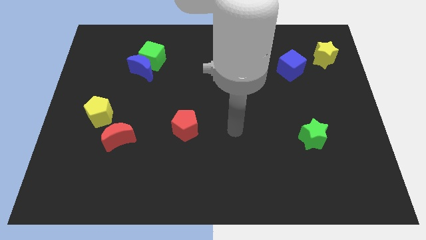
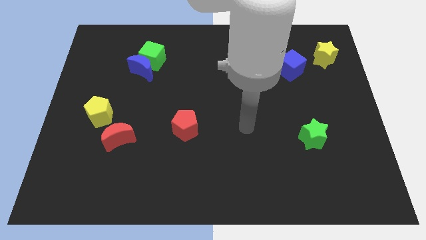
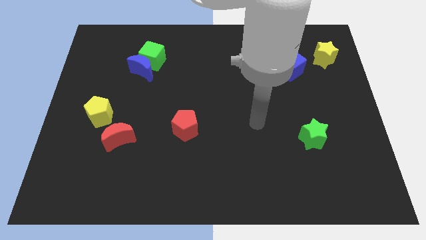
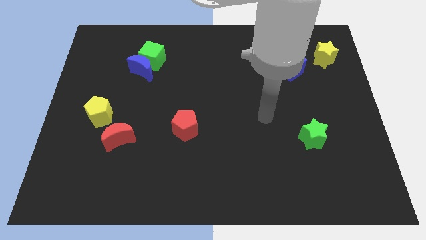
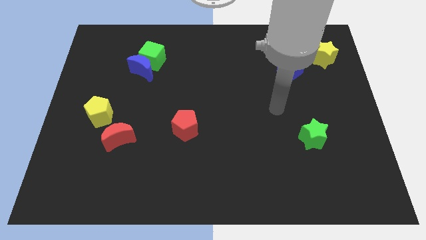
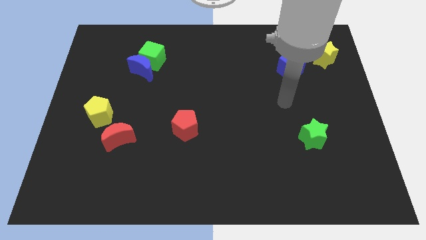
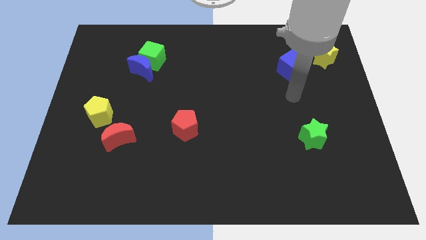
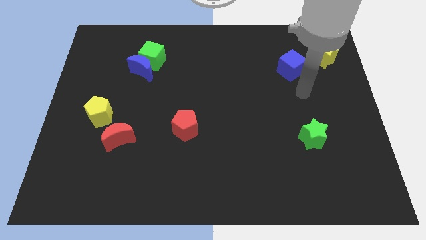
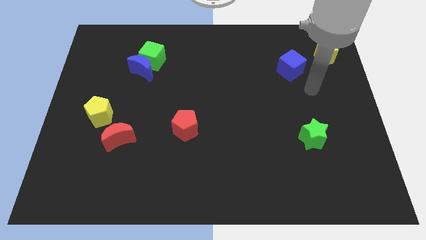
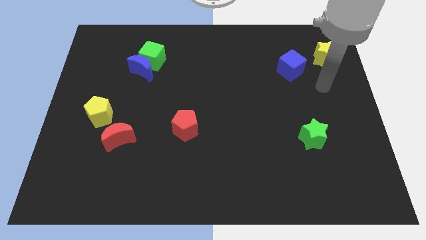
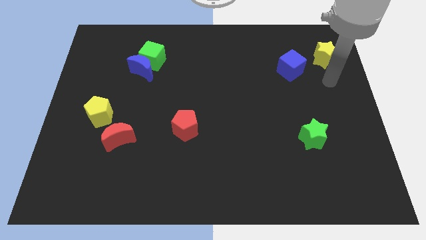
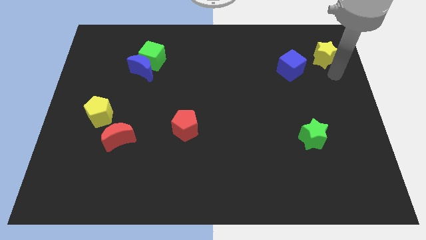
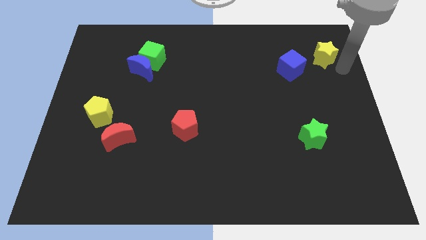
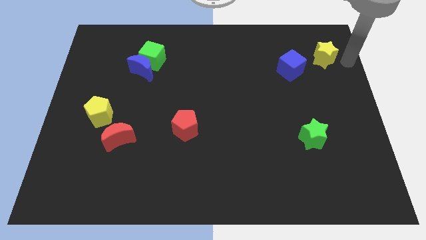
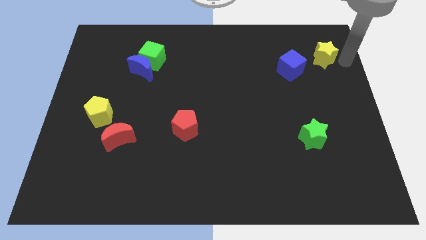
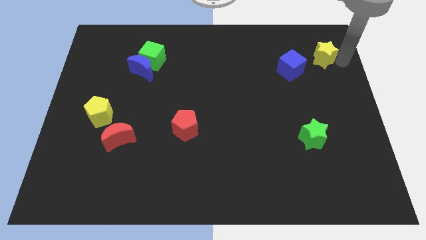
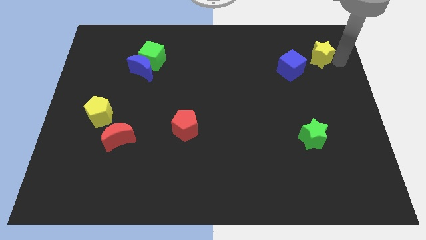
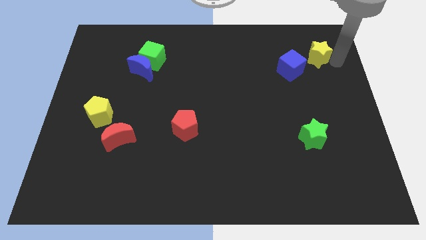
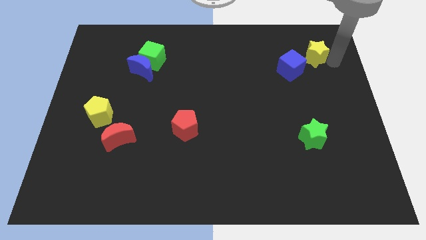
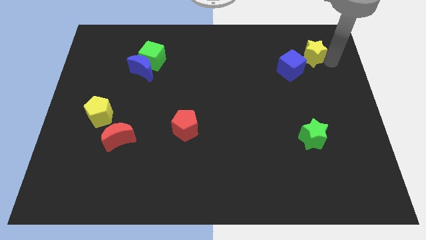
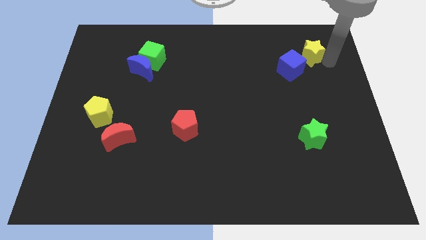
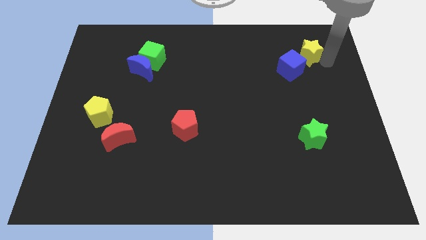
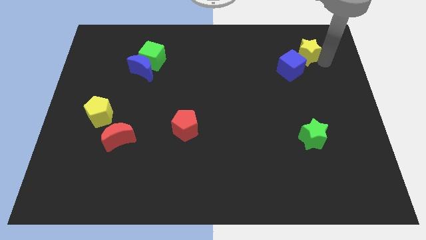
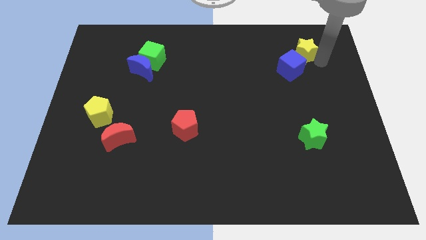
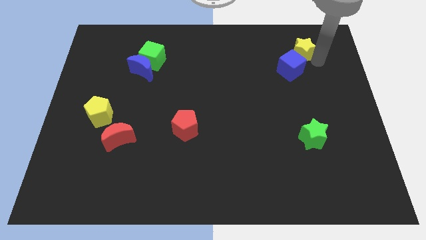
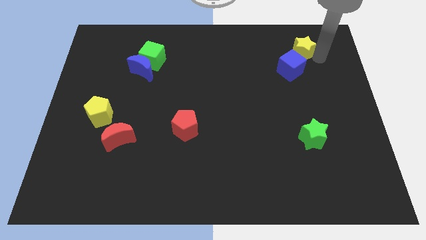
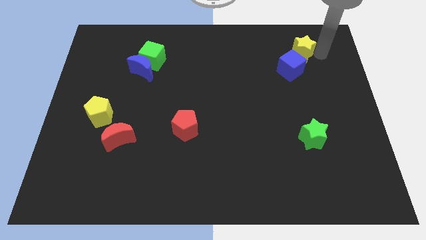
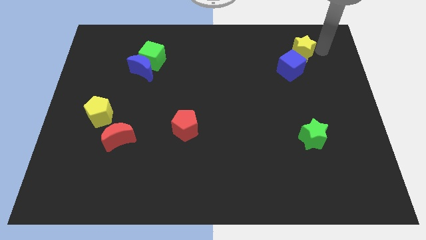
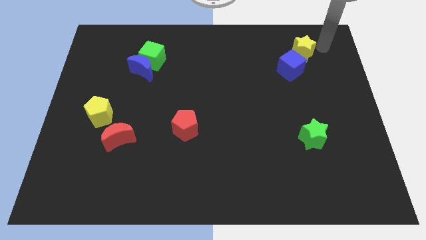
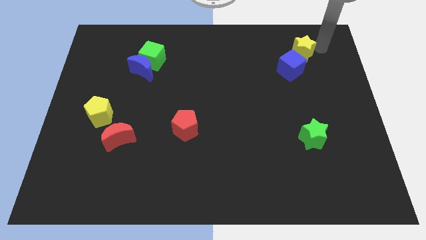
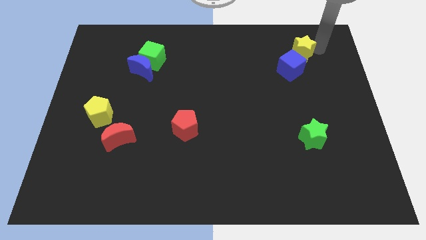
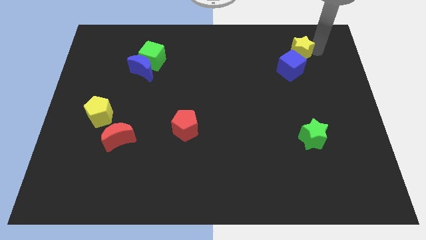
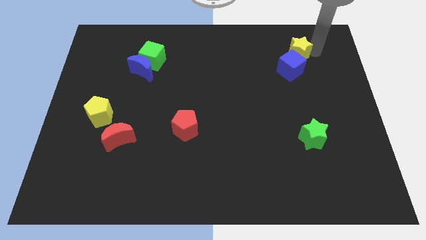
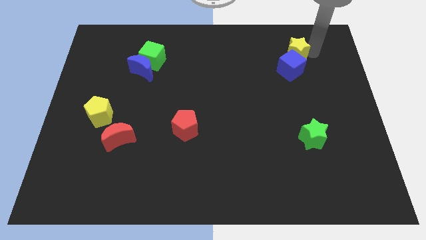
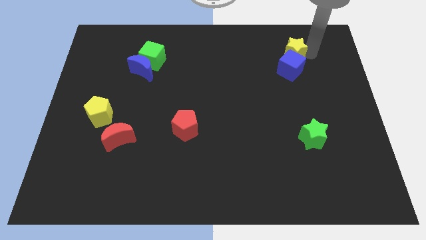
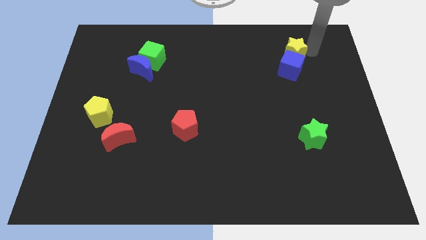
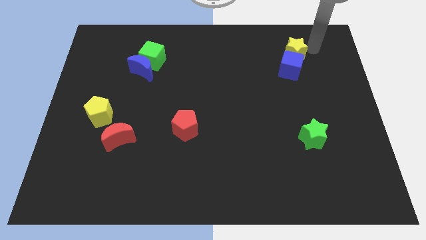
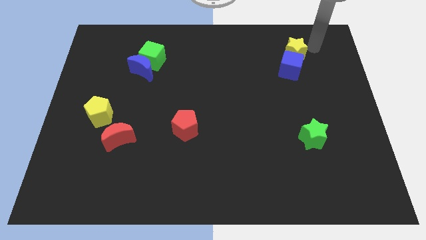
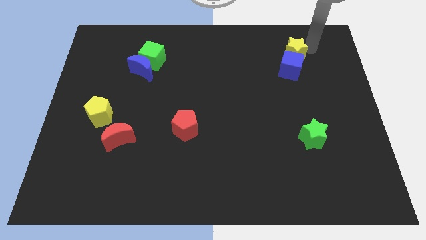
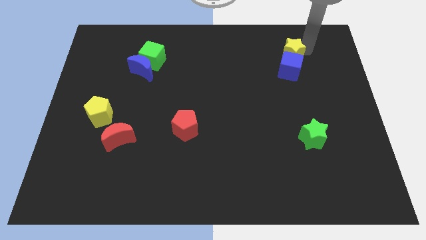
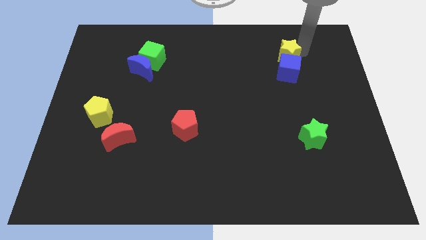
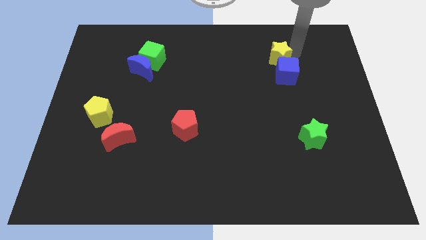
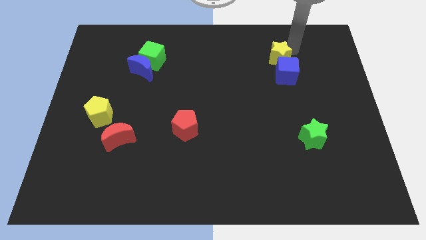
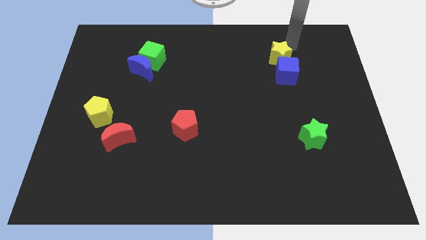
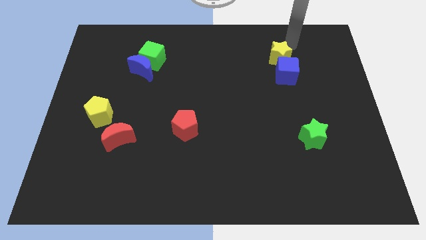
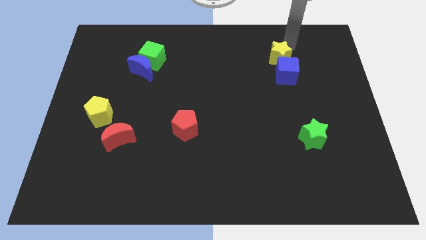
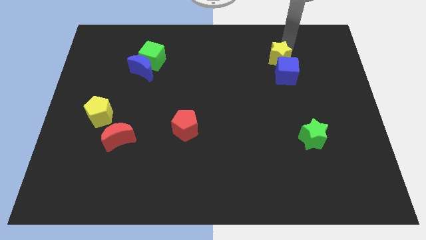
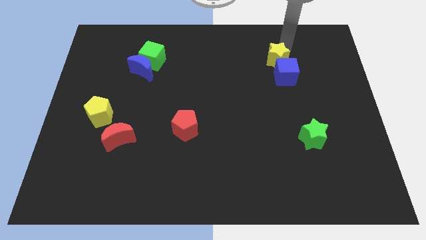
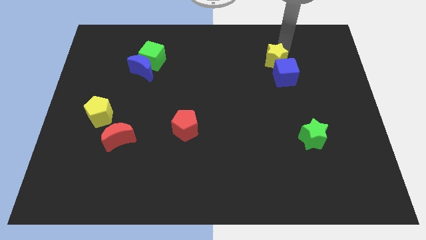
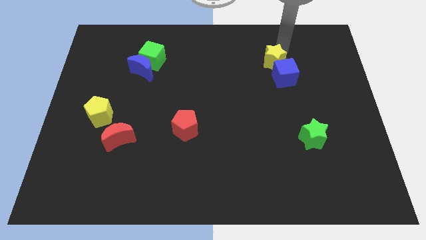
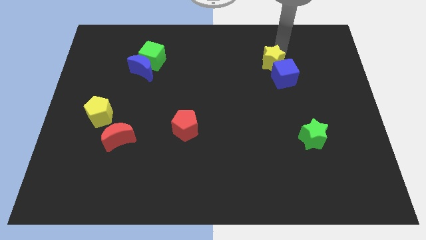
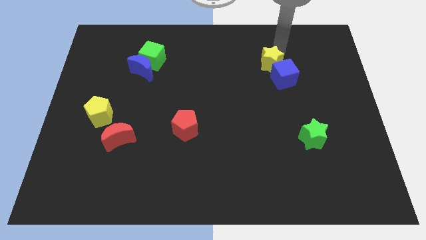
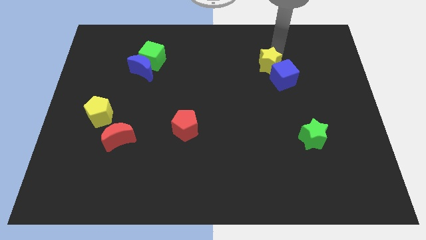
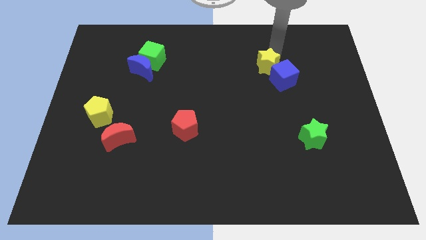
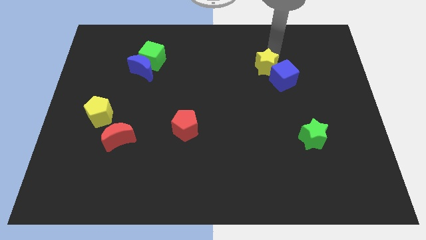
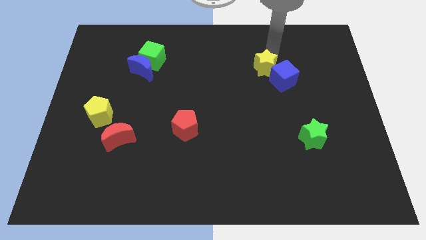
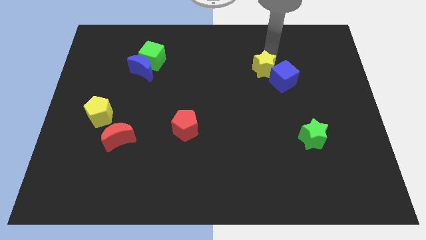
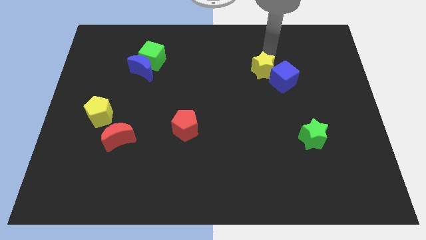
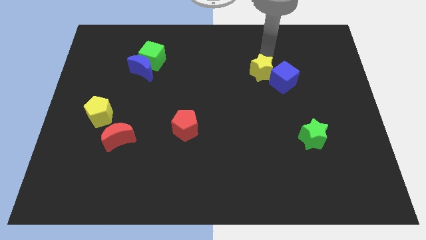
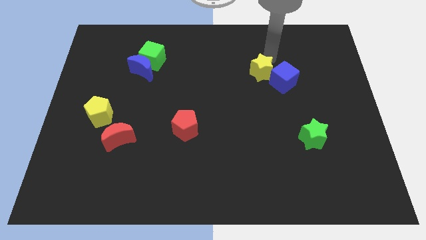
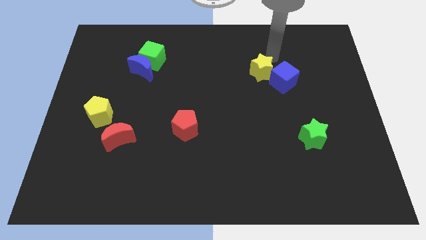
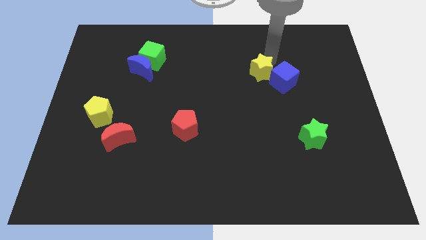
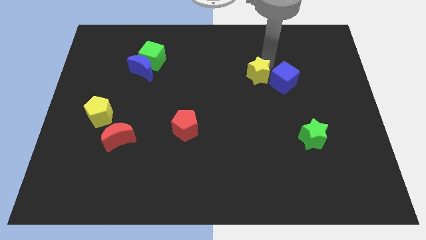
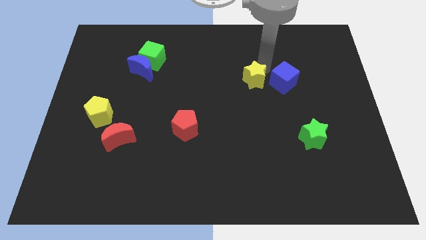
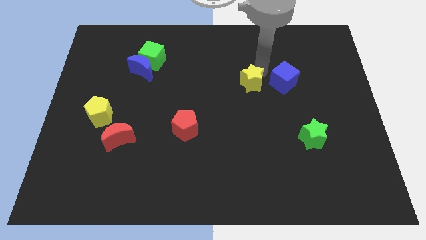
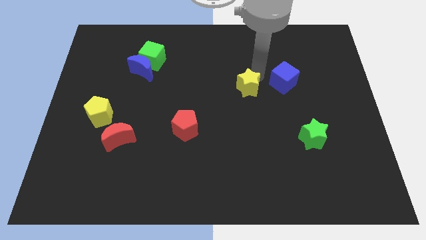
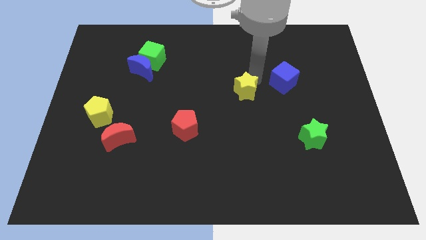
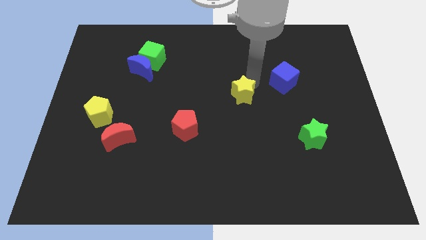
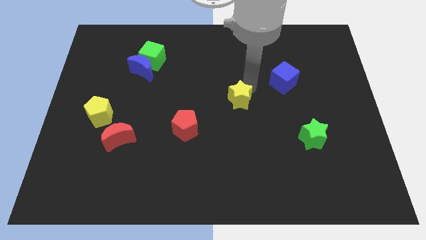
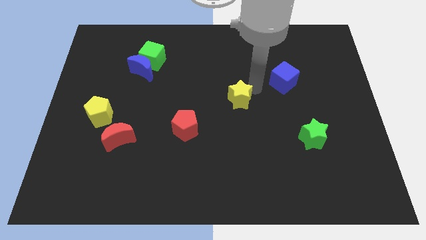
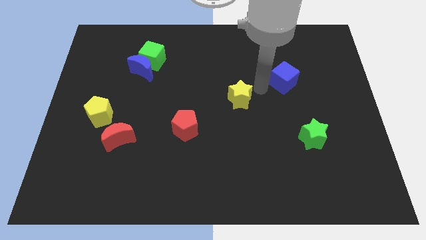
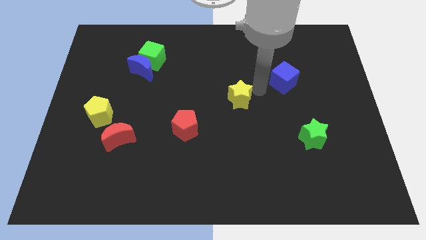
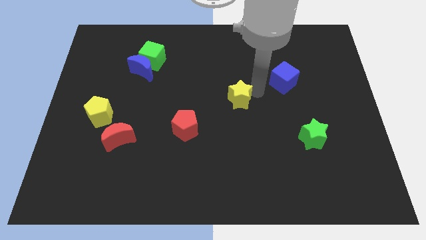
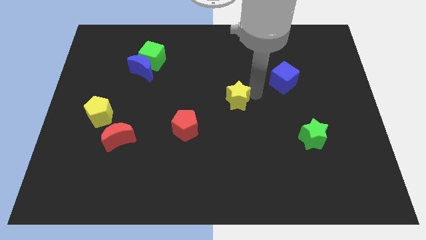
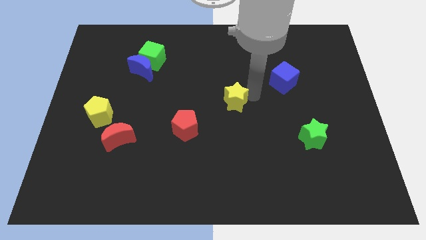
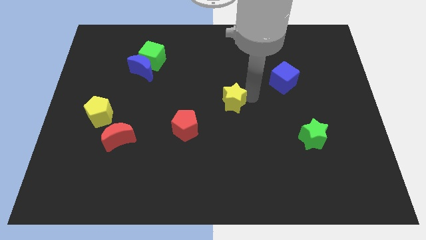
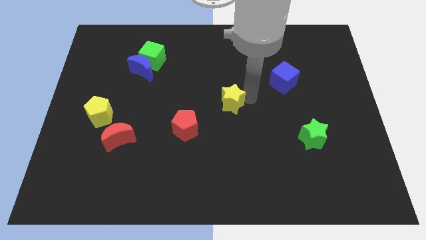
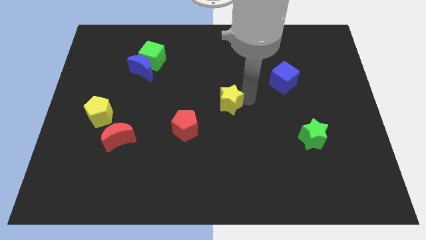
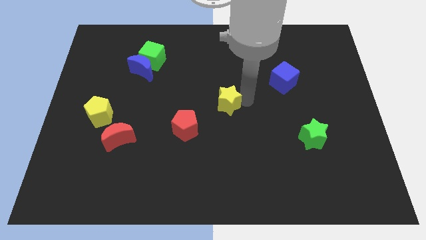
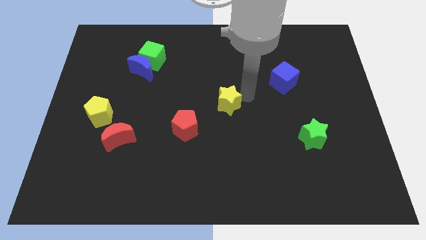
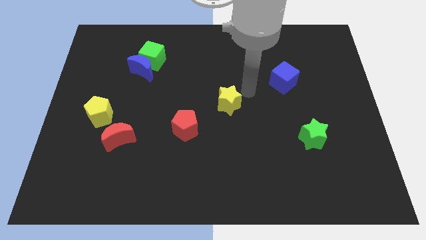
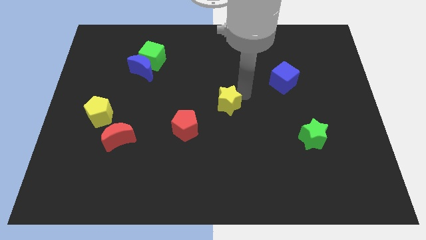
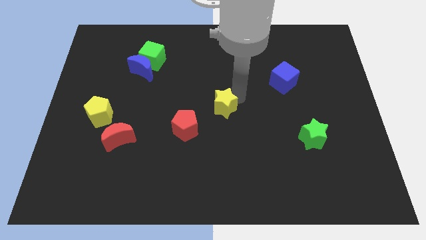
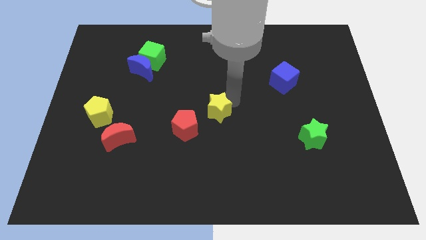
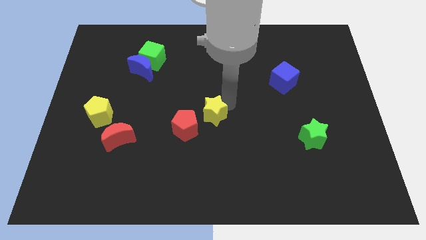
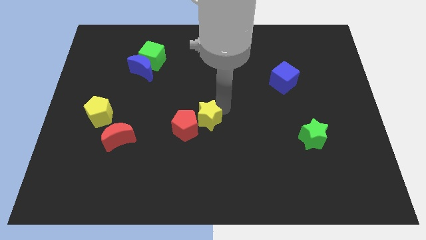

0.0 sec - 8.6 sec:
move the yellow star to the red pentagon
